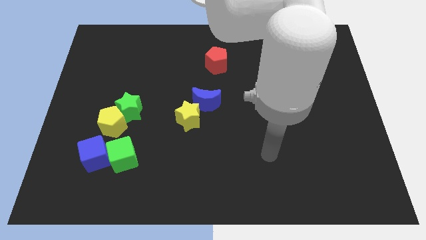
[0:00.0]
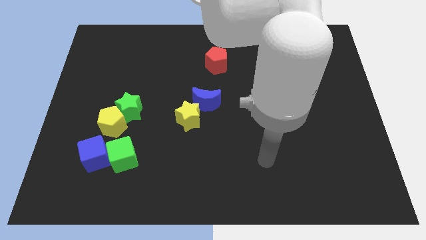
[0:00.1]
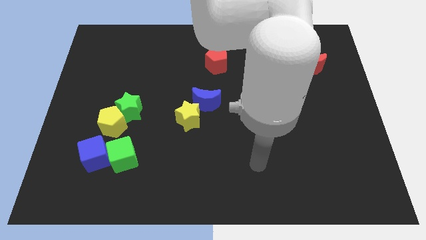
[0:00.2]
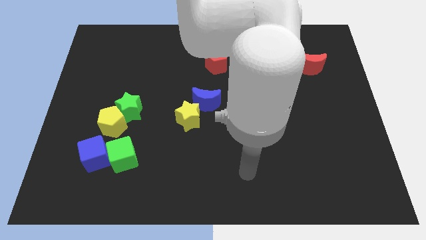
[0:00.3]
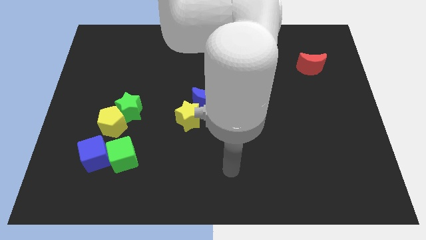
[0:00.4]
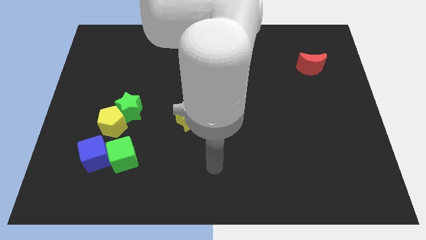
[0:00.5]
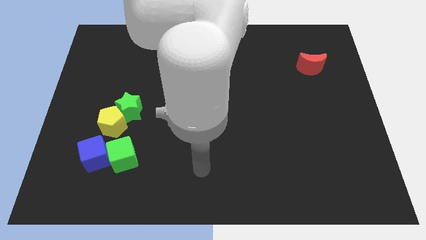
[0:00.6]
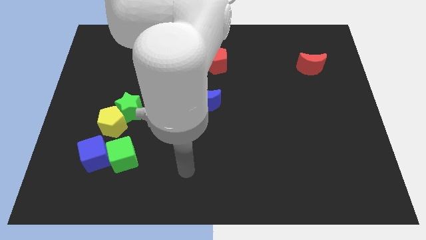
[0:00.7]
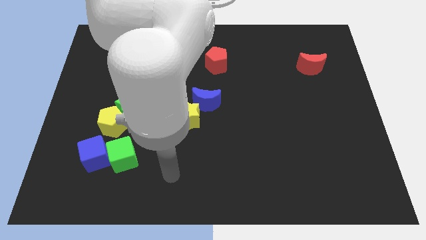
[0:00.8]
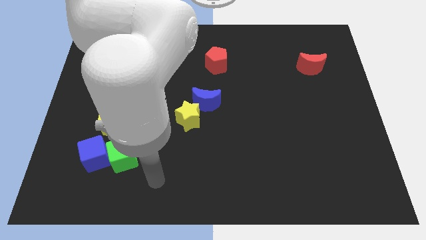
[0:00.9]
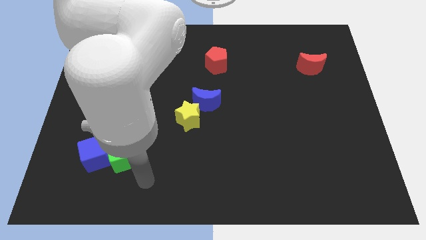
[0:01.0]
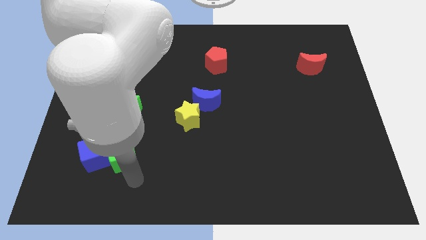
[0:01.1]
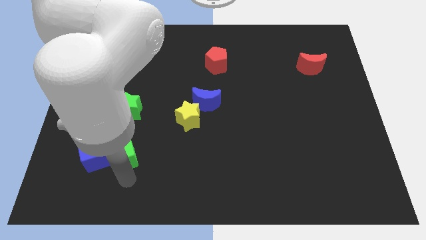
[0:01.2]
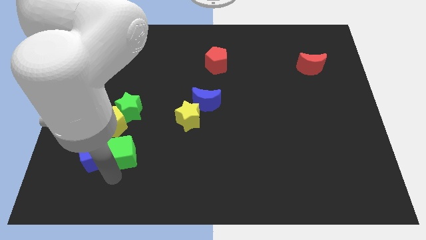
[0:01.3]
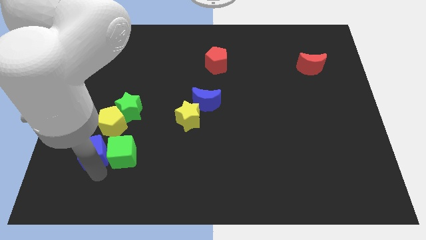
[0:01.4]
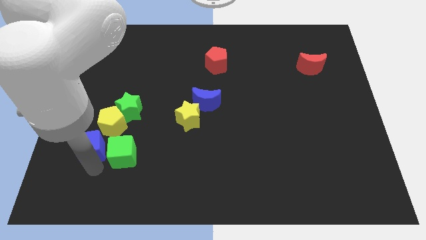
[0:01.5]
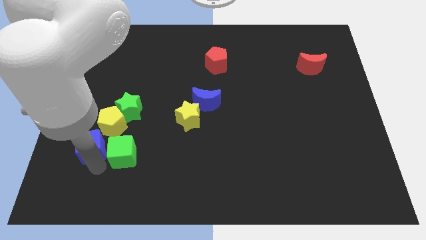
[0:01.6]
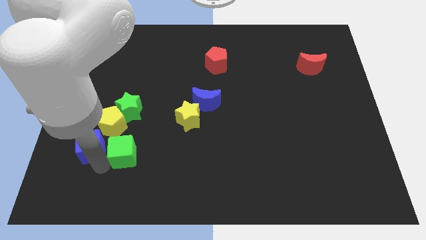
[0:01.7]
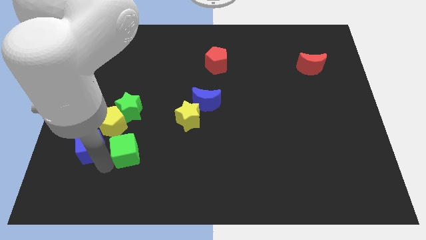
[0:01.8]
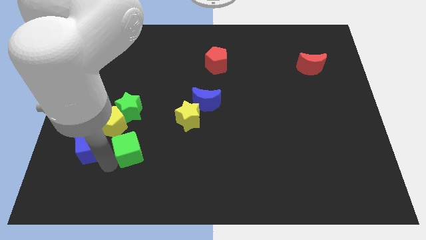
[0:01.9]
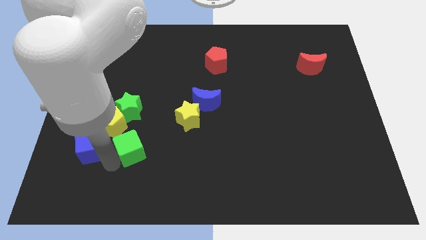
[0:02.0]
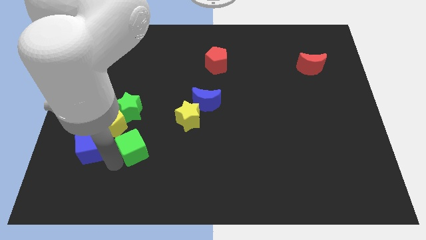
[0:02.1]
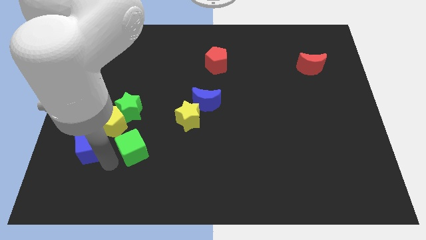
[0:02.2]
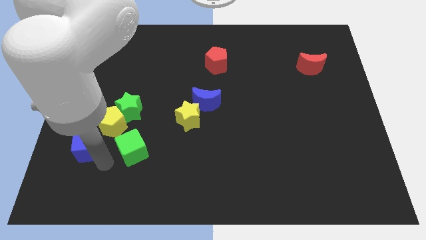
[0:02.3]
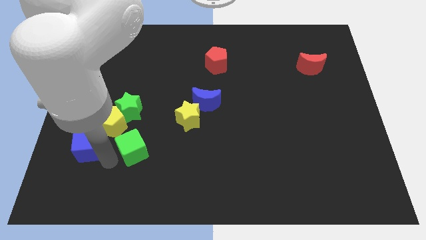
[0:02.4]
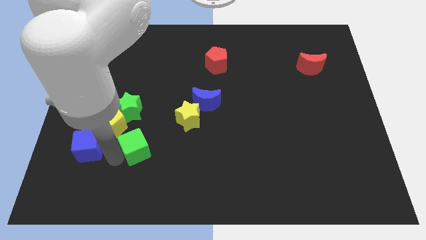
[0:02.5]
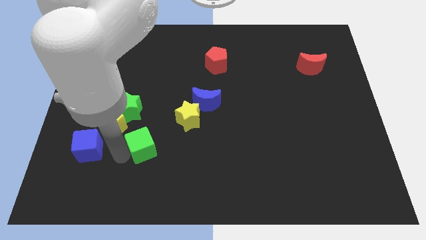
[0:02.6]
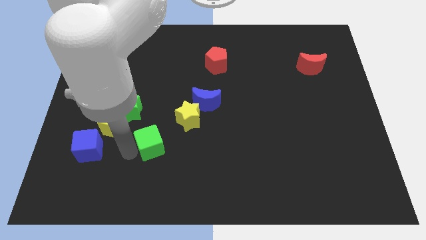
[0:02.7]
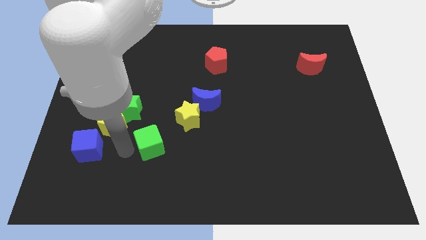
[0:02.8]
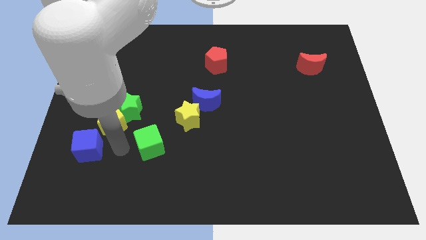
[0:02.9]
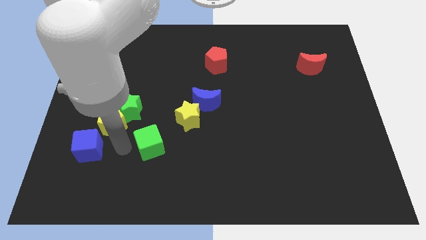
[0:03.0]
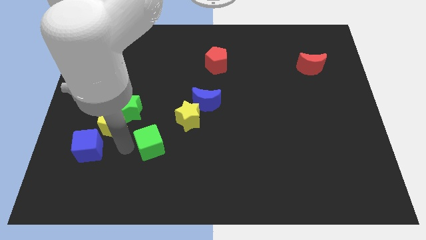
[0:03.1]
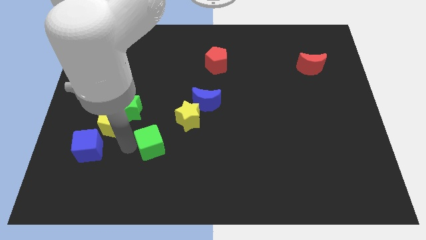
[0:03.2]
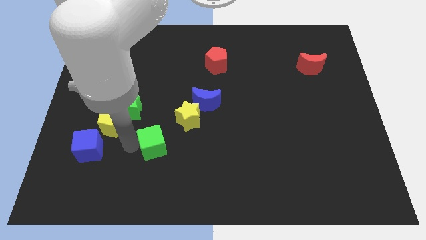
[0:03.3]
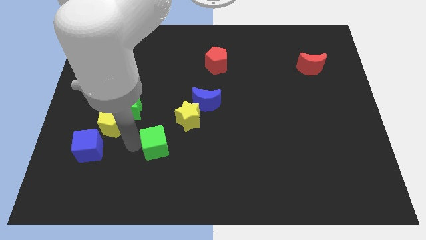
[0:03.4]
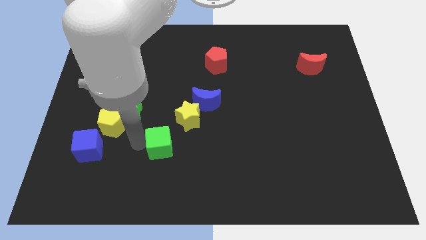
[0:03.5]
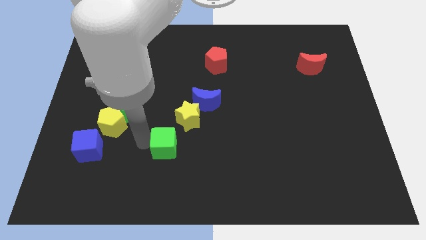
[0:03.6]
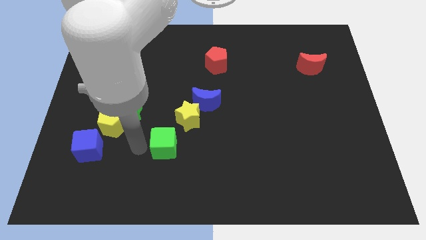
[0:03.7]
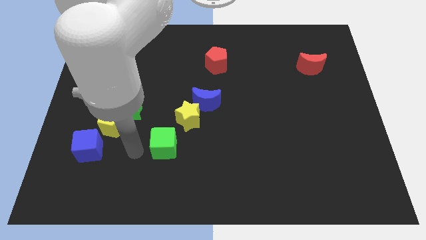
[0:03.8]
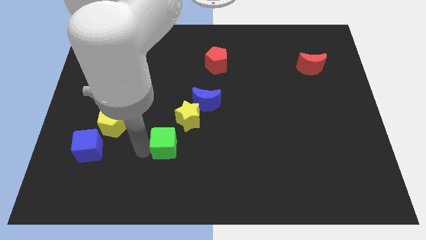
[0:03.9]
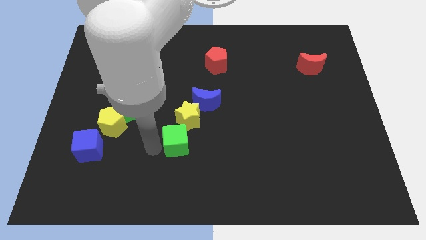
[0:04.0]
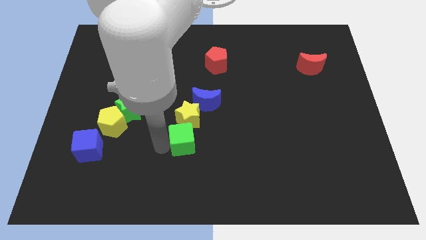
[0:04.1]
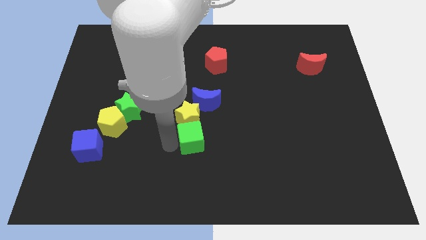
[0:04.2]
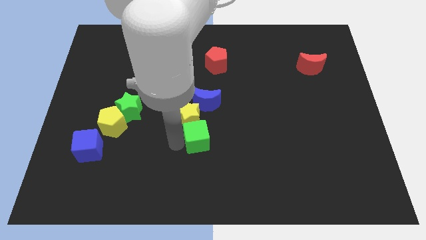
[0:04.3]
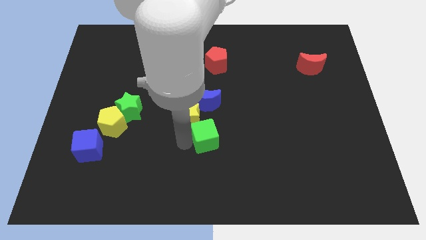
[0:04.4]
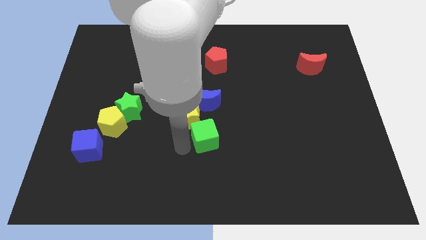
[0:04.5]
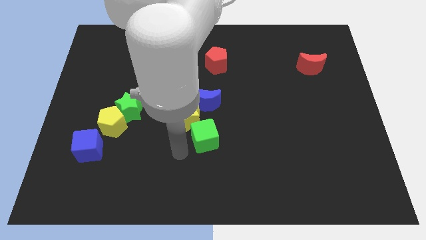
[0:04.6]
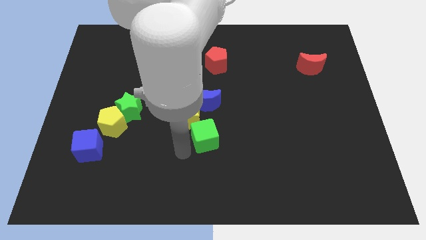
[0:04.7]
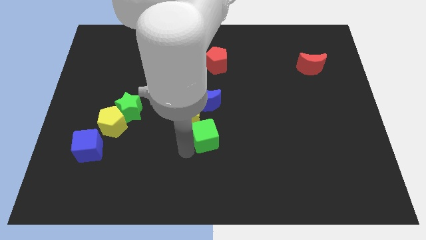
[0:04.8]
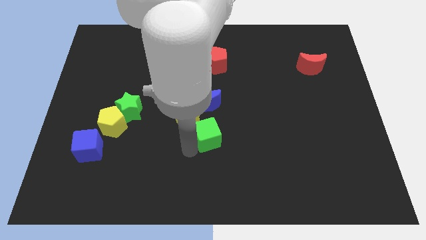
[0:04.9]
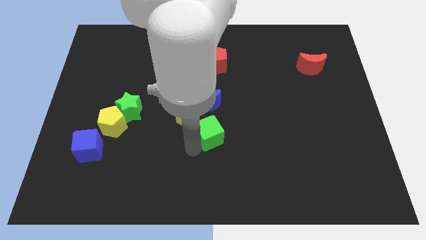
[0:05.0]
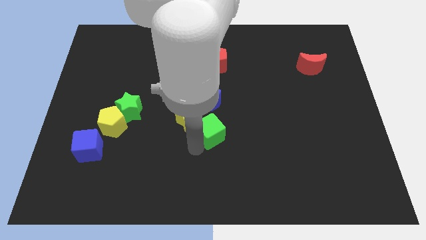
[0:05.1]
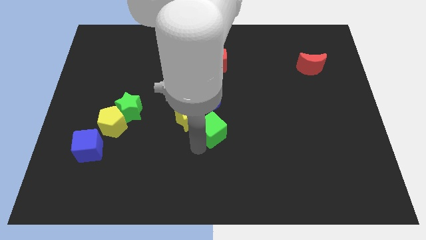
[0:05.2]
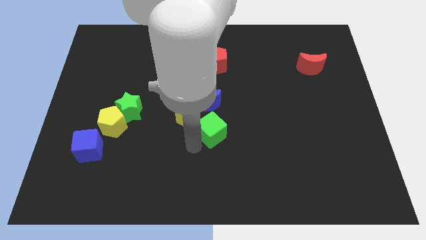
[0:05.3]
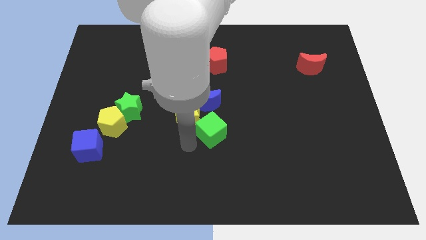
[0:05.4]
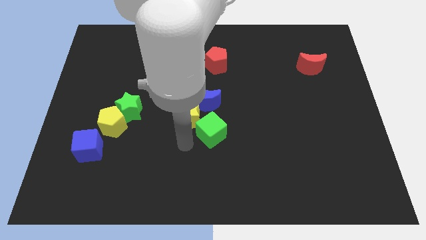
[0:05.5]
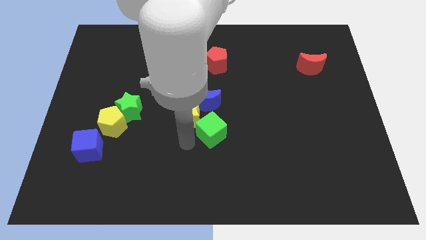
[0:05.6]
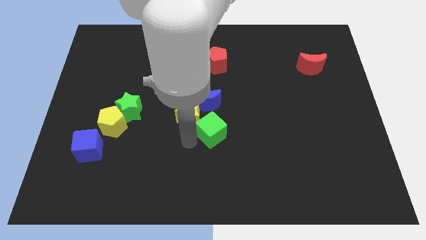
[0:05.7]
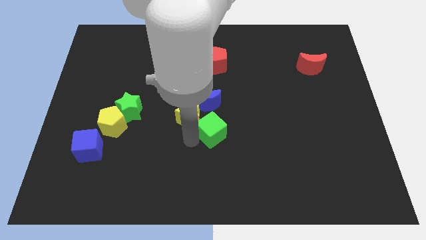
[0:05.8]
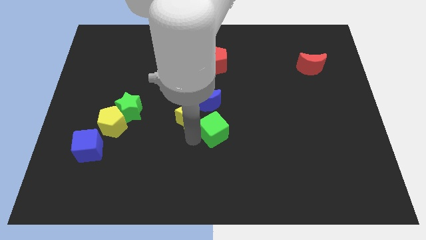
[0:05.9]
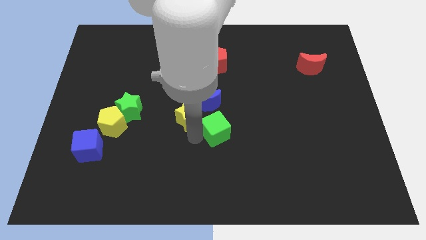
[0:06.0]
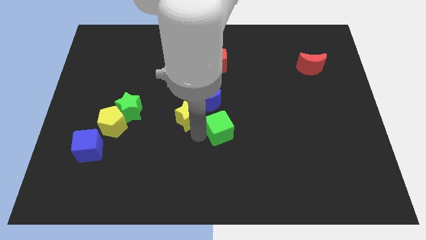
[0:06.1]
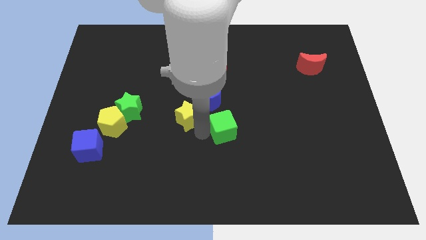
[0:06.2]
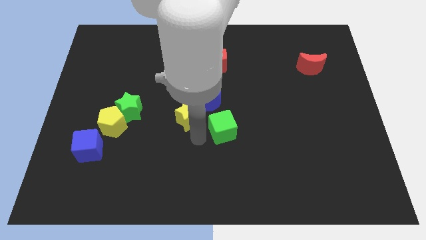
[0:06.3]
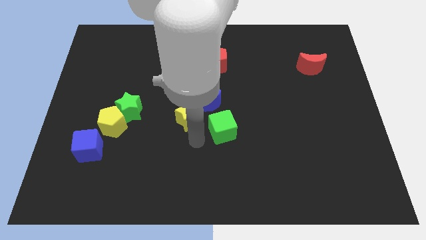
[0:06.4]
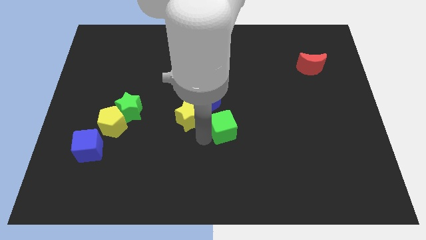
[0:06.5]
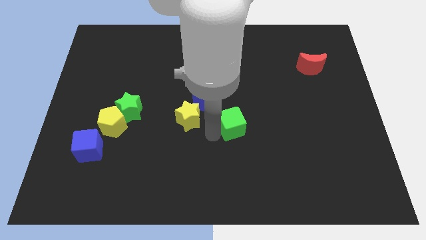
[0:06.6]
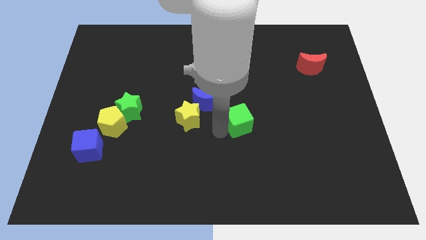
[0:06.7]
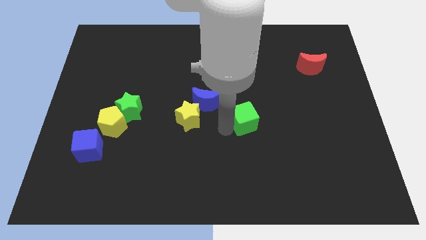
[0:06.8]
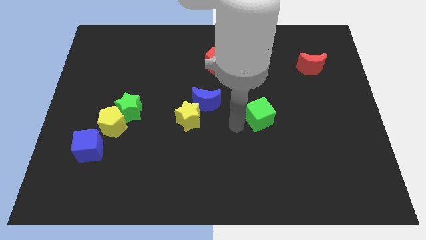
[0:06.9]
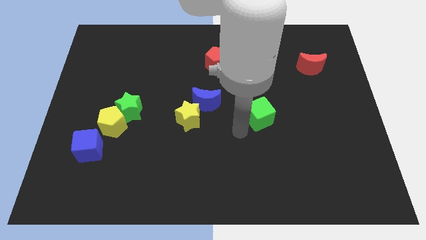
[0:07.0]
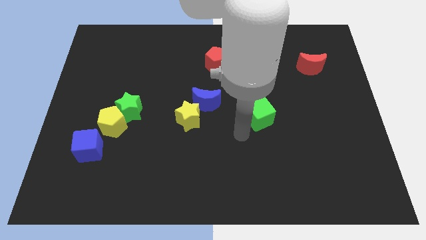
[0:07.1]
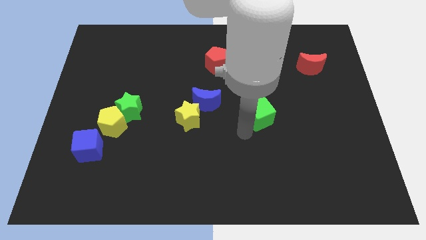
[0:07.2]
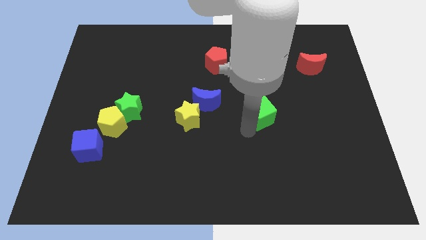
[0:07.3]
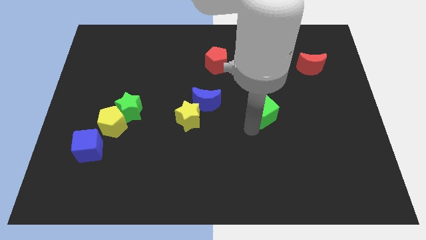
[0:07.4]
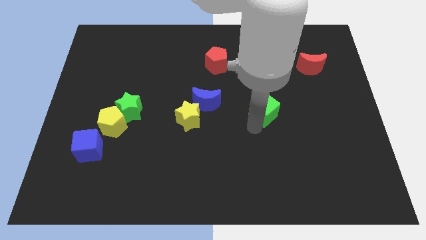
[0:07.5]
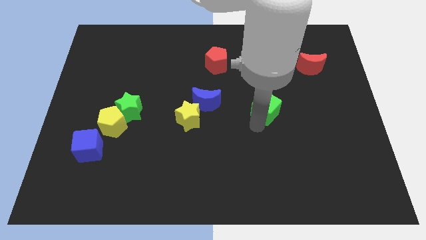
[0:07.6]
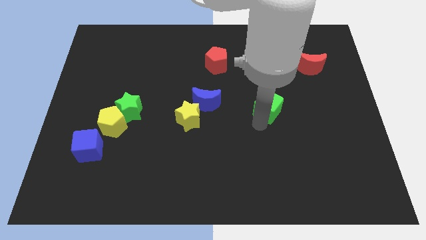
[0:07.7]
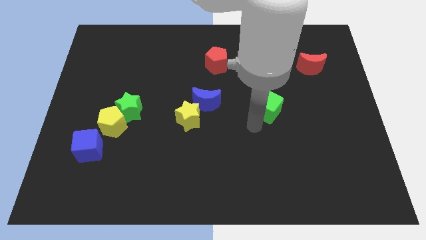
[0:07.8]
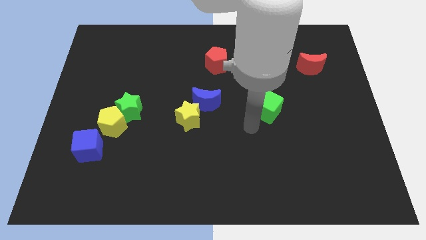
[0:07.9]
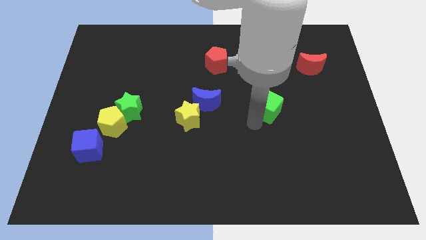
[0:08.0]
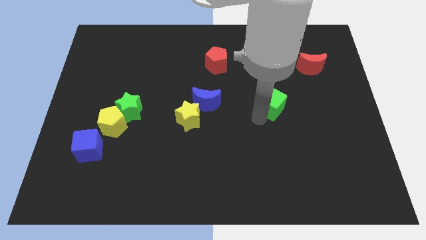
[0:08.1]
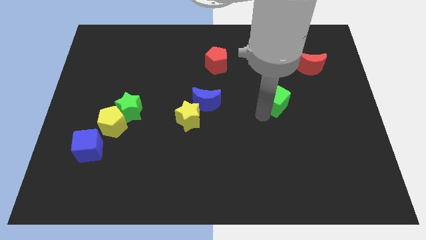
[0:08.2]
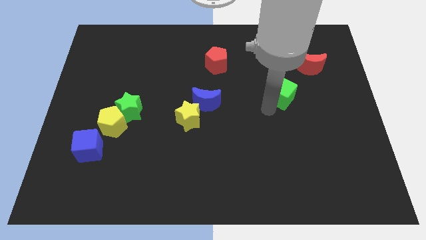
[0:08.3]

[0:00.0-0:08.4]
put the green cube to the bottom left side of the red moon
